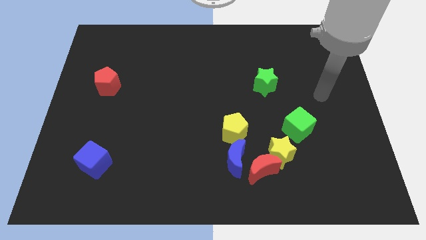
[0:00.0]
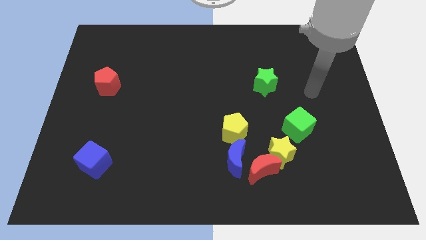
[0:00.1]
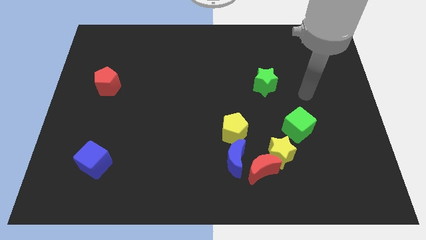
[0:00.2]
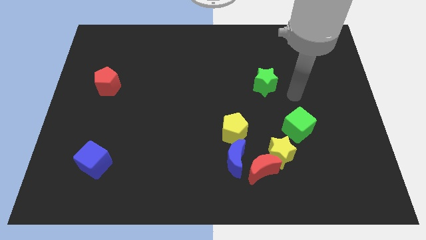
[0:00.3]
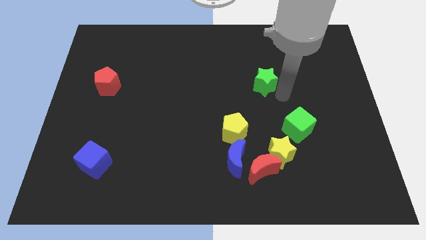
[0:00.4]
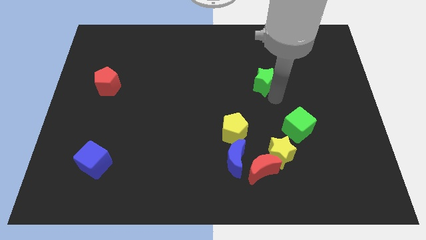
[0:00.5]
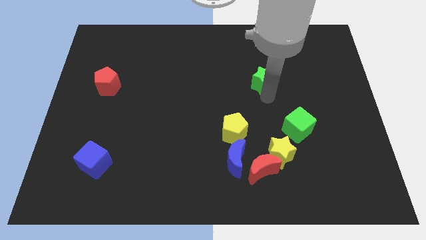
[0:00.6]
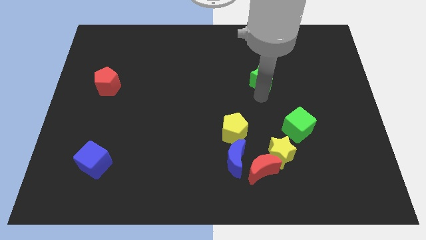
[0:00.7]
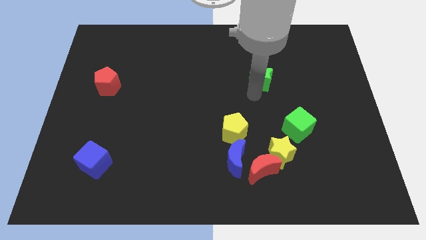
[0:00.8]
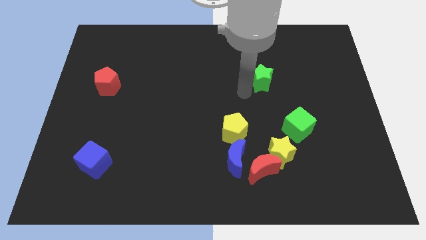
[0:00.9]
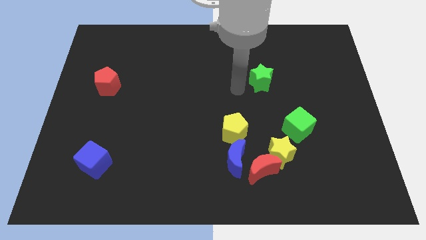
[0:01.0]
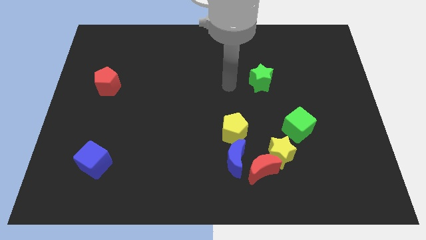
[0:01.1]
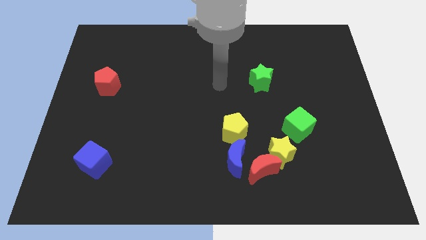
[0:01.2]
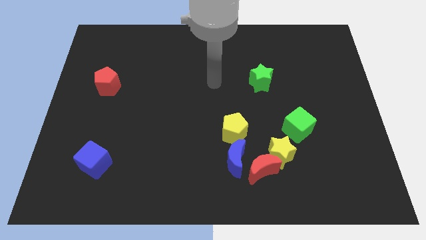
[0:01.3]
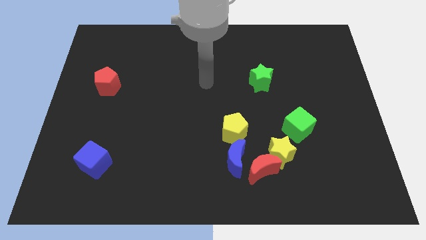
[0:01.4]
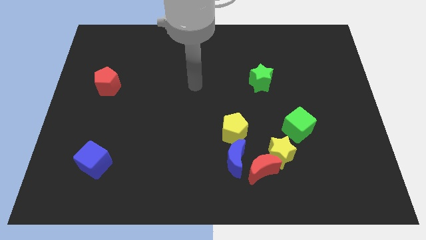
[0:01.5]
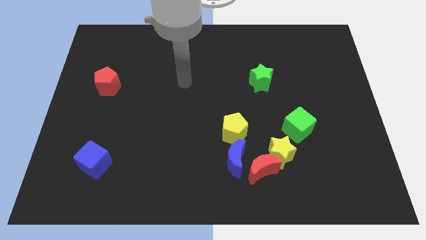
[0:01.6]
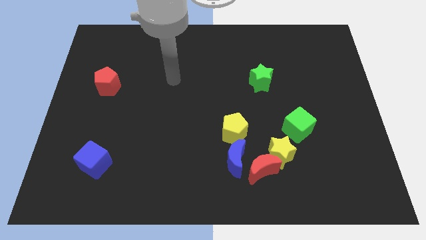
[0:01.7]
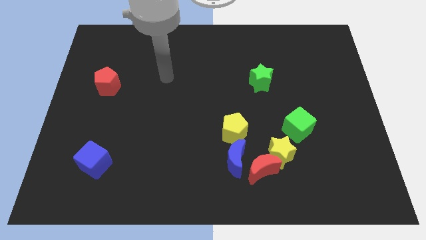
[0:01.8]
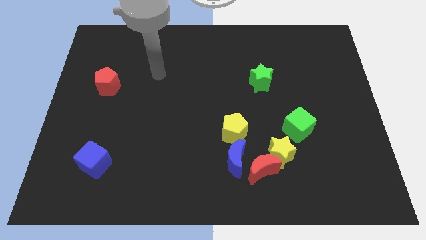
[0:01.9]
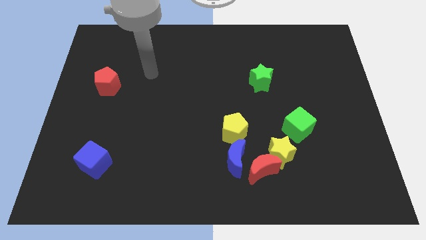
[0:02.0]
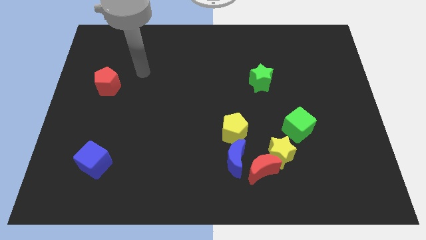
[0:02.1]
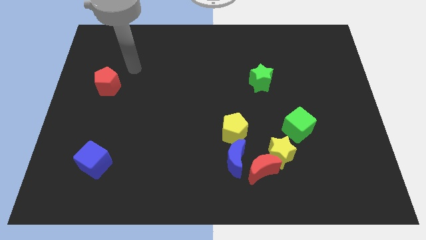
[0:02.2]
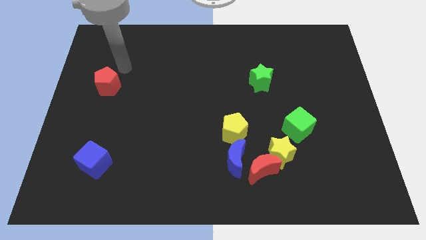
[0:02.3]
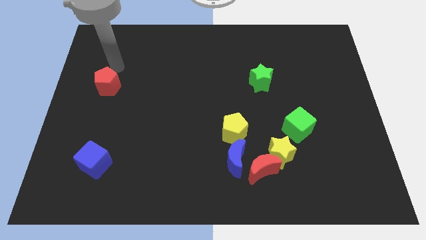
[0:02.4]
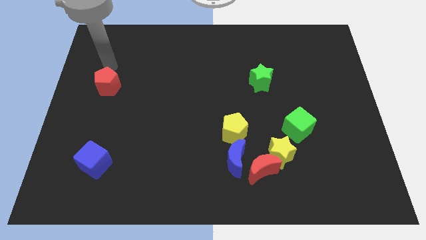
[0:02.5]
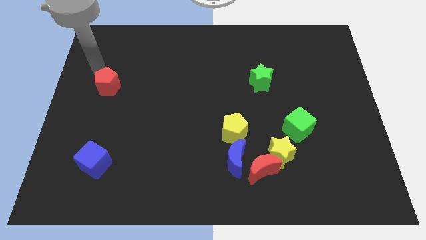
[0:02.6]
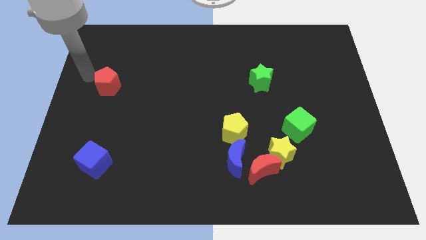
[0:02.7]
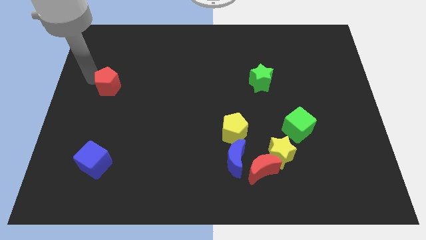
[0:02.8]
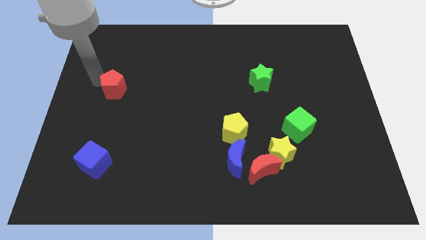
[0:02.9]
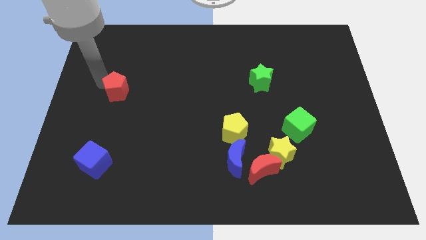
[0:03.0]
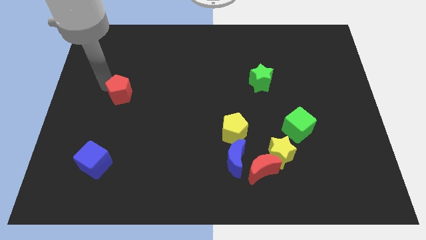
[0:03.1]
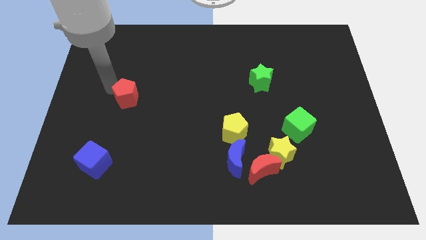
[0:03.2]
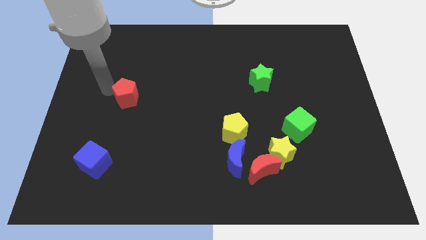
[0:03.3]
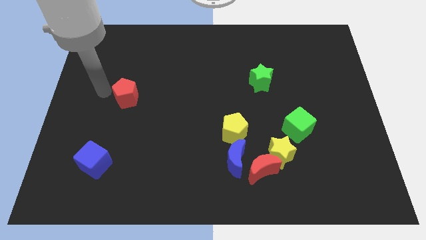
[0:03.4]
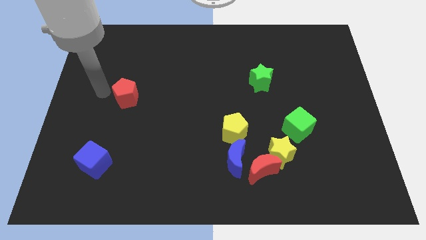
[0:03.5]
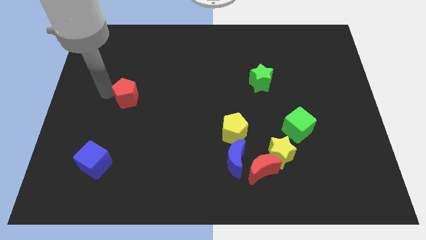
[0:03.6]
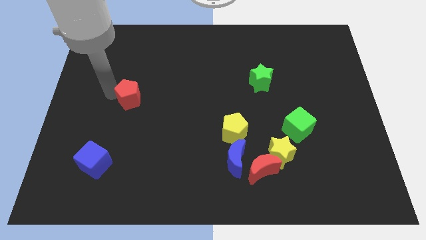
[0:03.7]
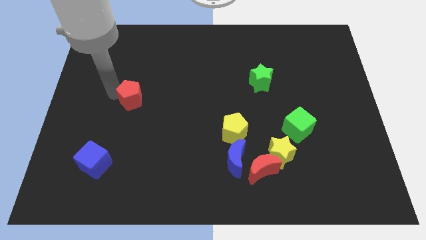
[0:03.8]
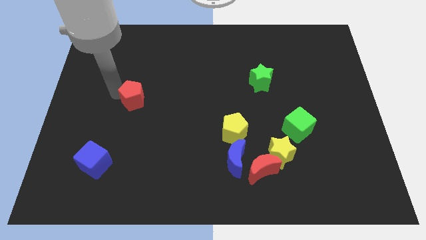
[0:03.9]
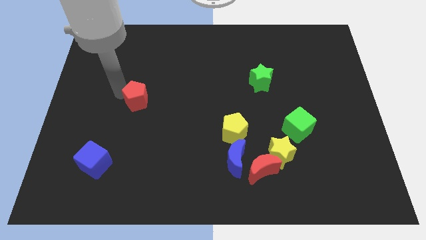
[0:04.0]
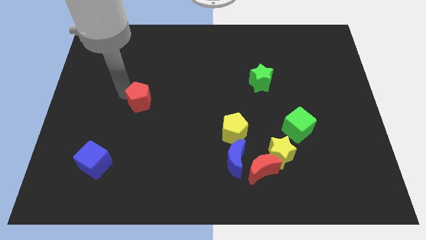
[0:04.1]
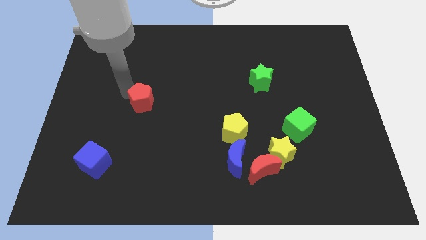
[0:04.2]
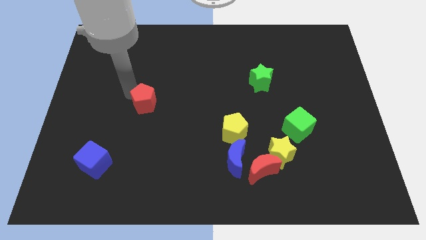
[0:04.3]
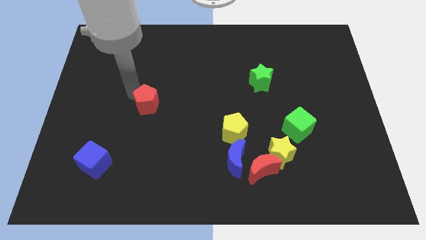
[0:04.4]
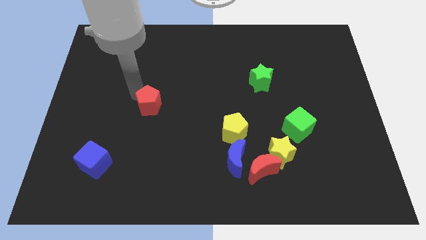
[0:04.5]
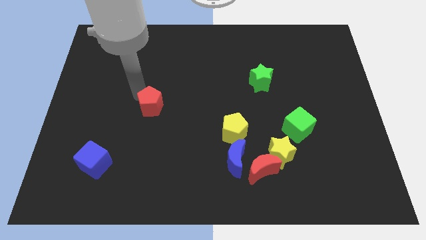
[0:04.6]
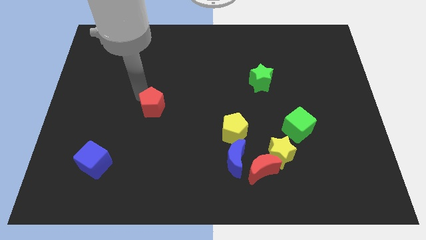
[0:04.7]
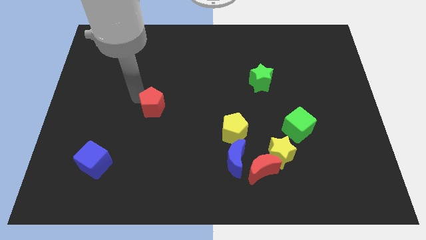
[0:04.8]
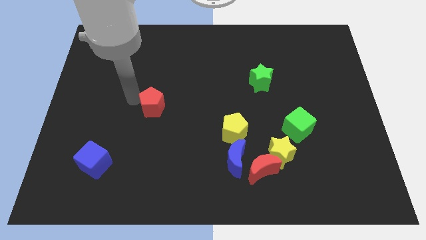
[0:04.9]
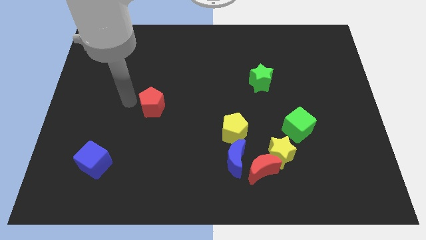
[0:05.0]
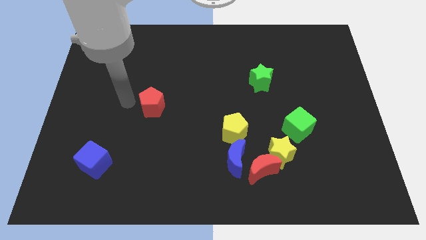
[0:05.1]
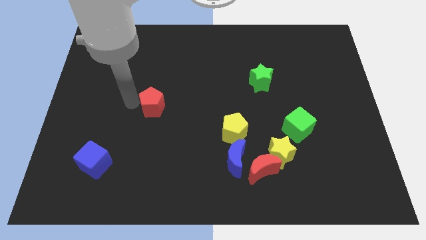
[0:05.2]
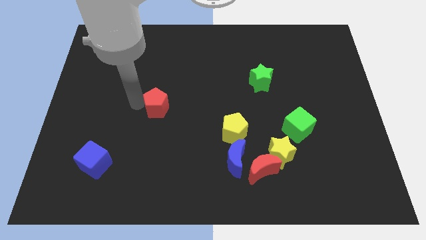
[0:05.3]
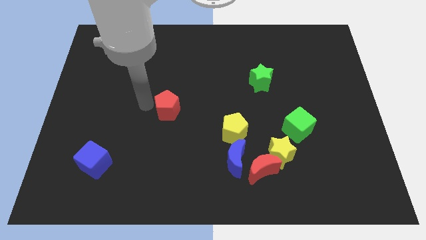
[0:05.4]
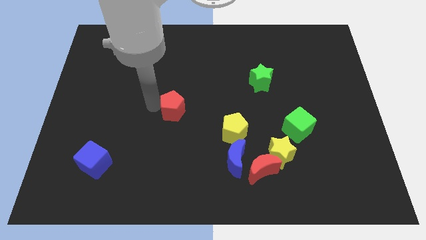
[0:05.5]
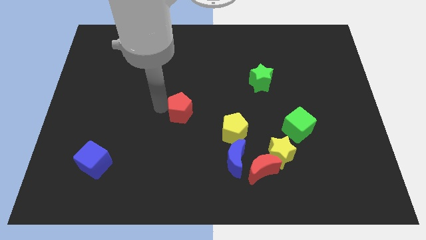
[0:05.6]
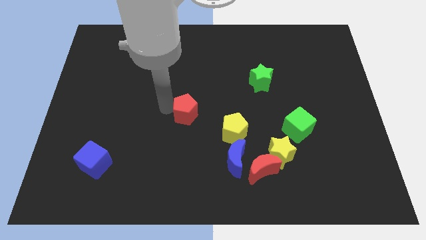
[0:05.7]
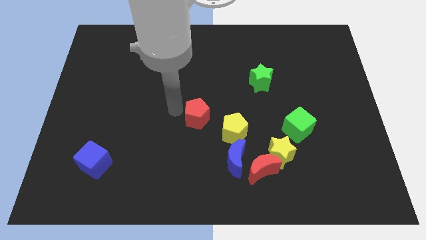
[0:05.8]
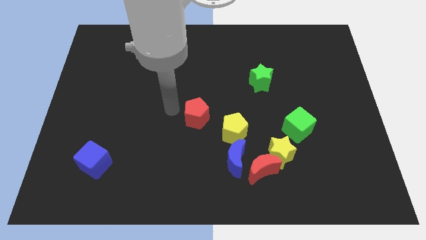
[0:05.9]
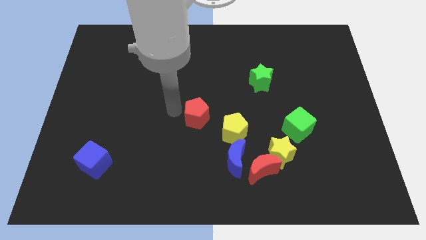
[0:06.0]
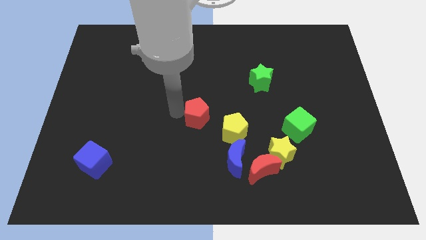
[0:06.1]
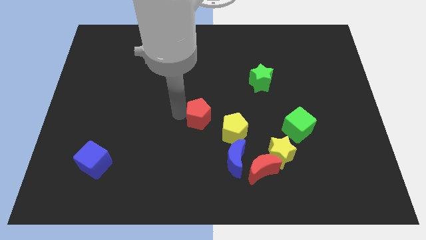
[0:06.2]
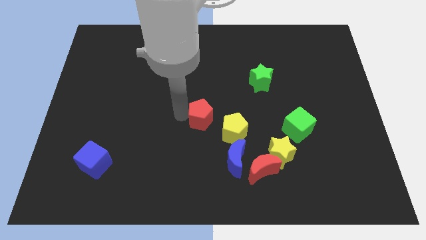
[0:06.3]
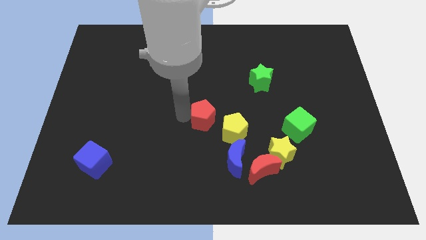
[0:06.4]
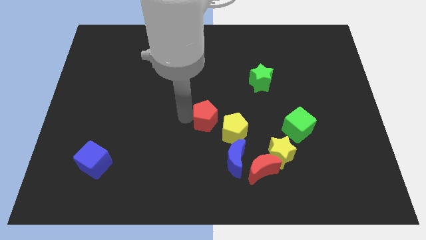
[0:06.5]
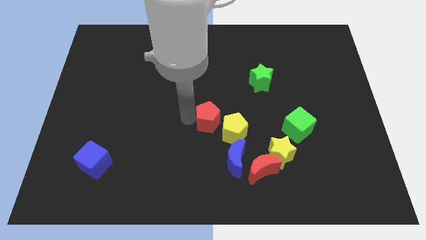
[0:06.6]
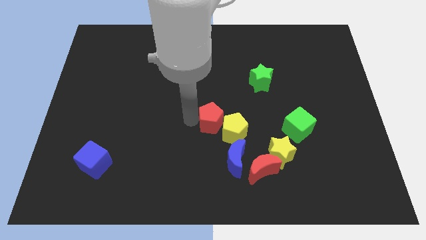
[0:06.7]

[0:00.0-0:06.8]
push the red pentagon close to the yellow pentagon
